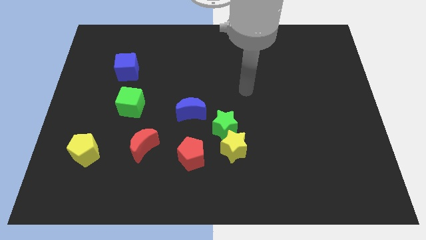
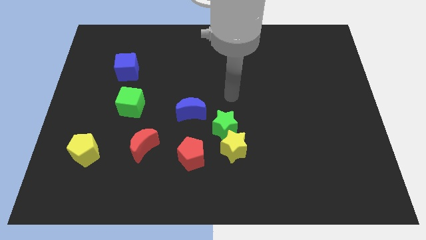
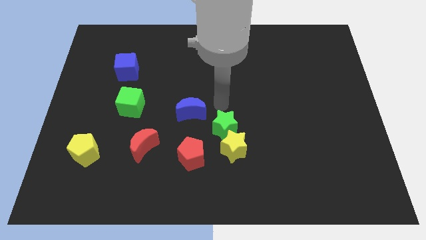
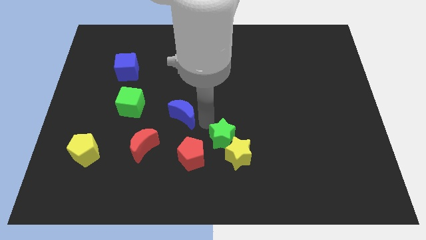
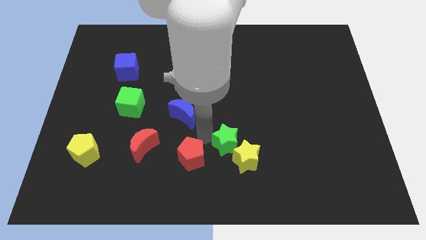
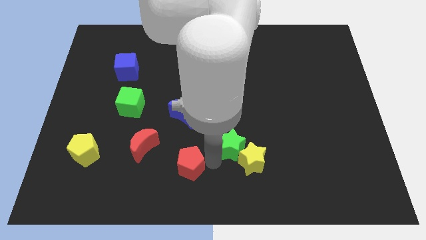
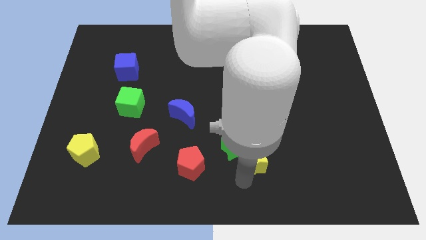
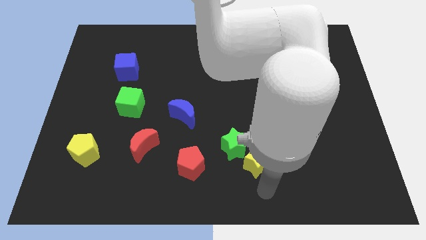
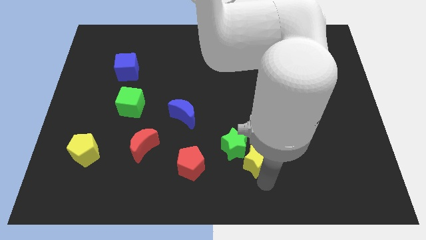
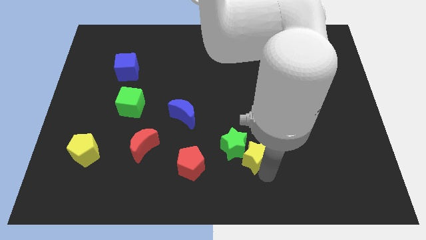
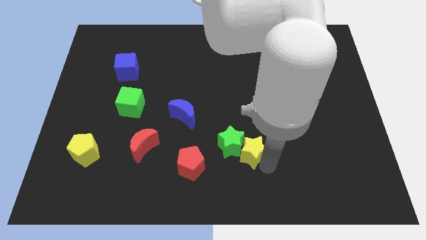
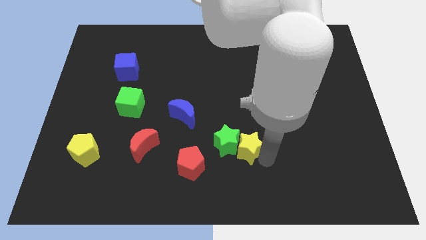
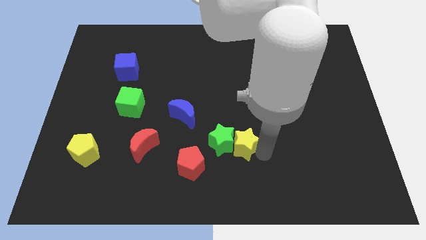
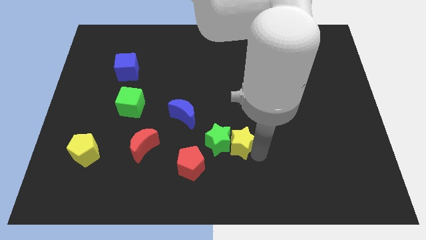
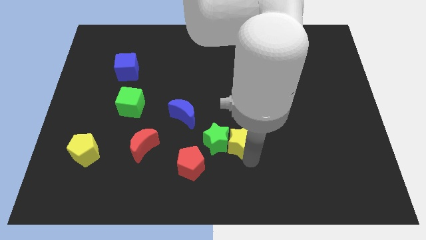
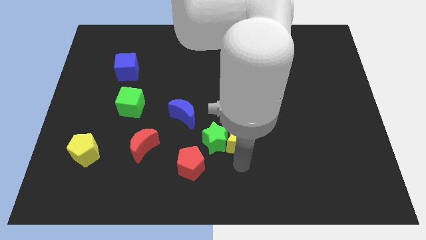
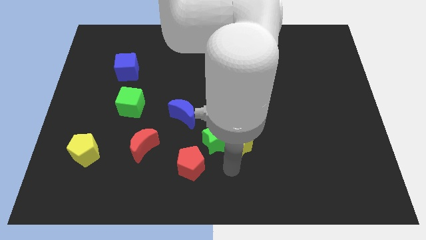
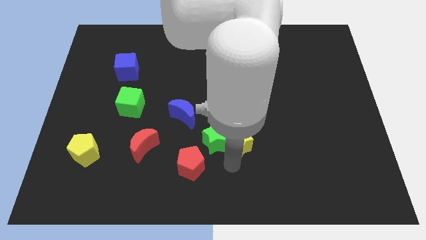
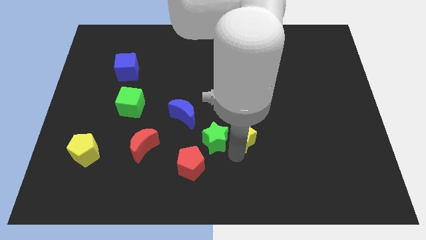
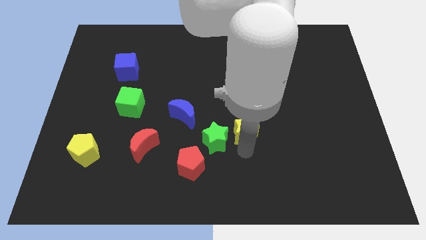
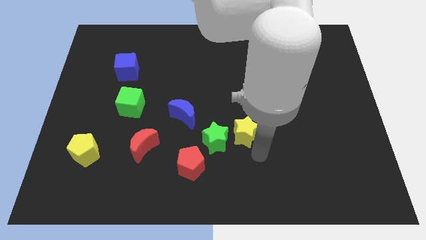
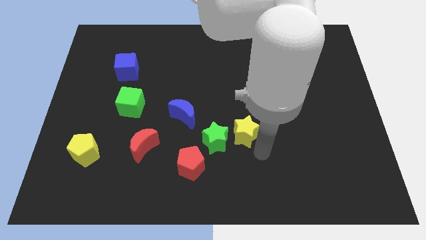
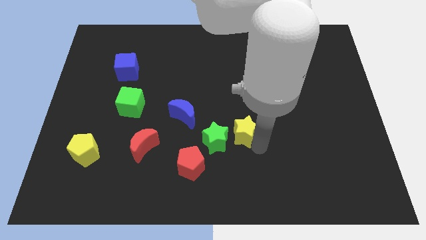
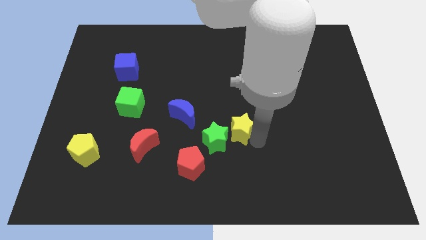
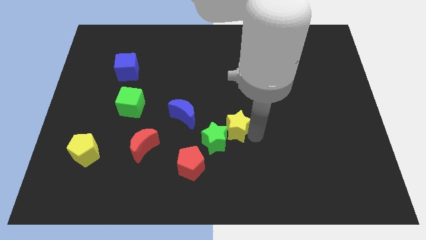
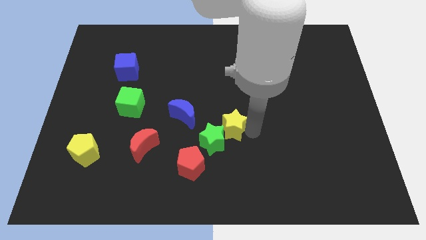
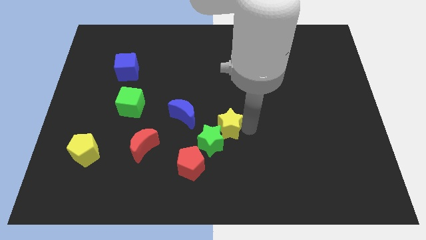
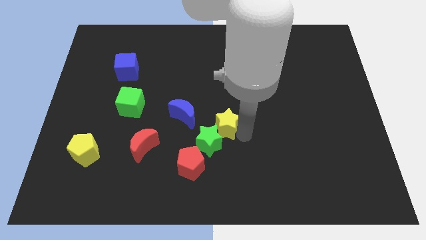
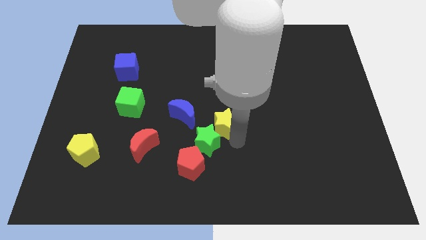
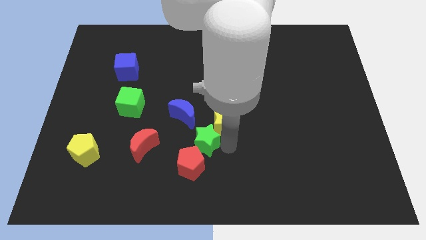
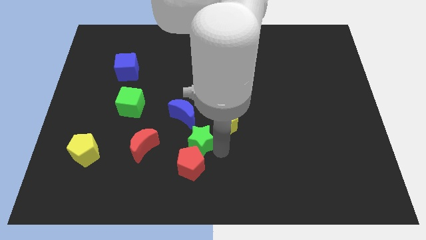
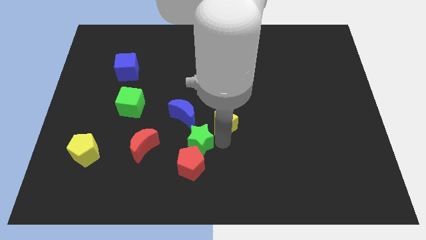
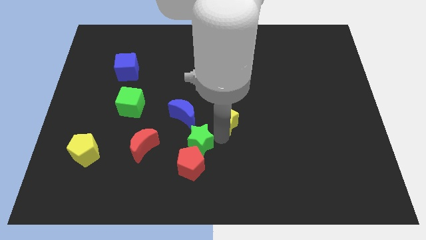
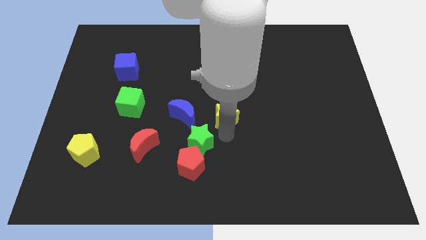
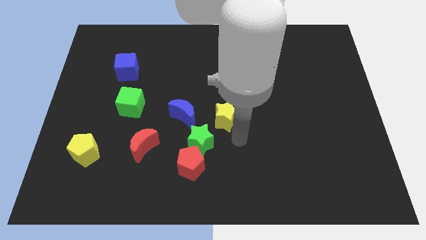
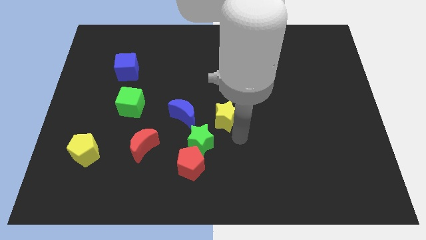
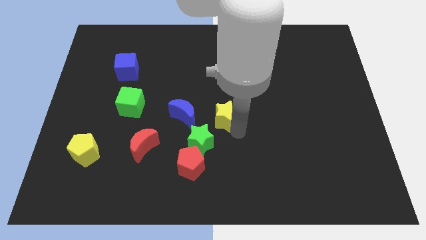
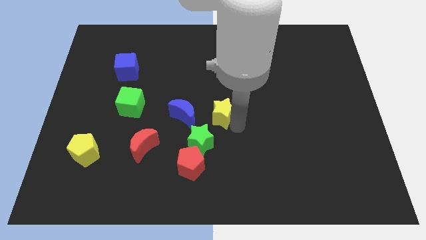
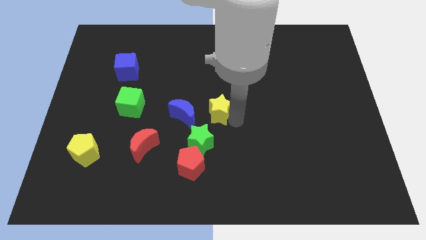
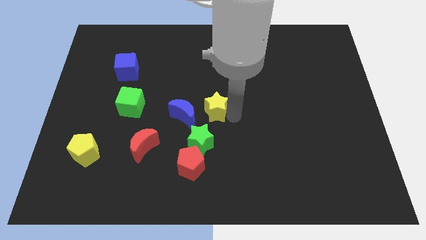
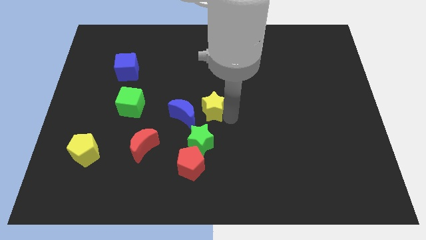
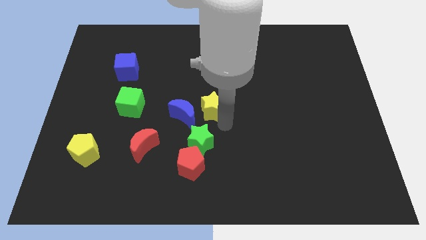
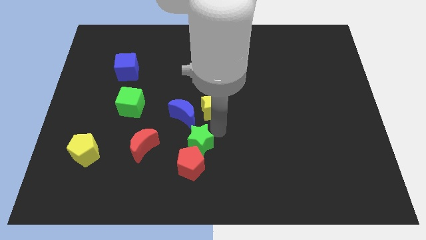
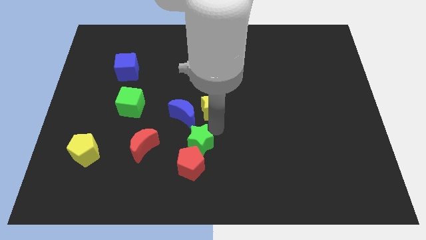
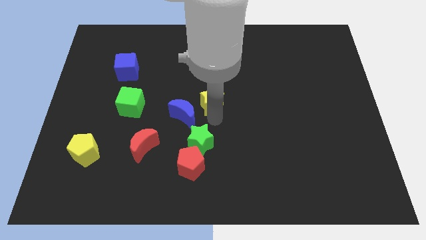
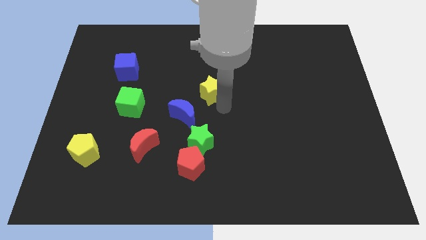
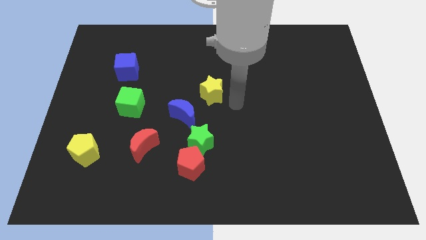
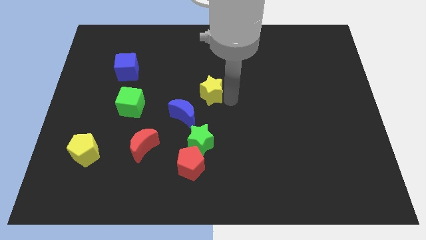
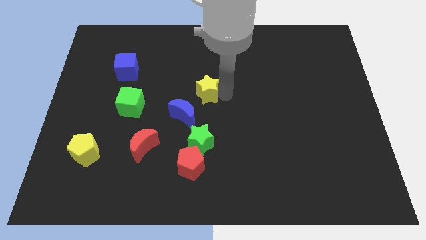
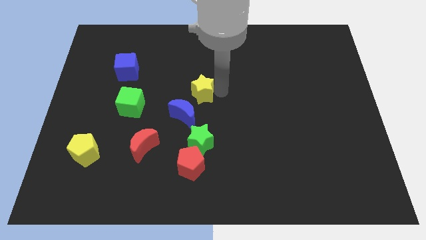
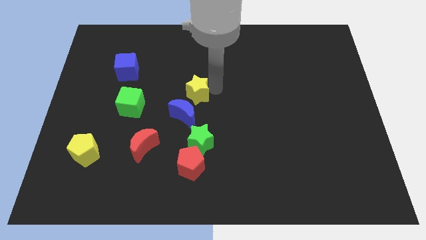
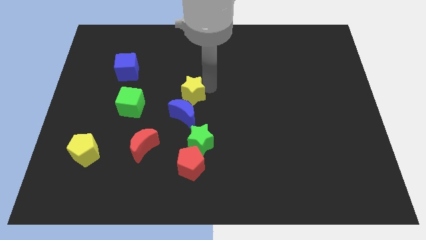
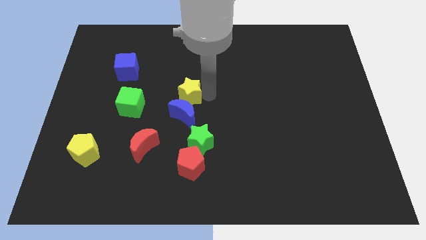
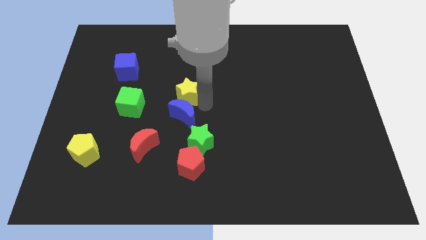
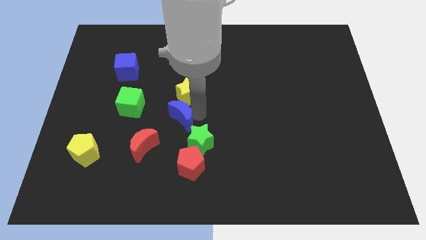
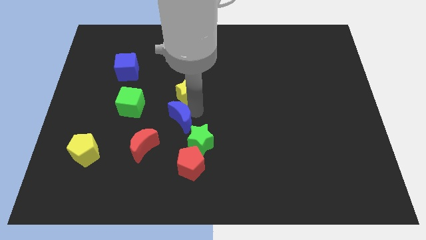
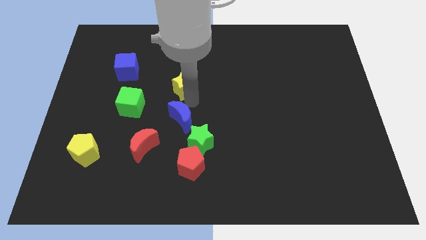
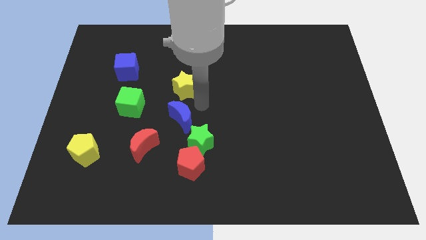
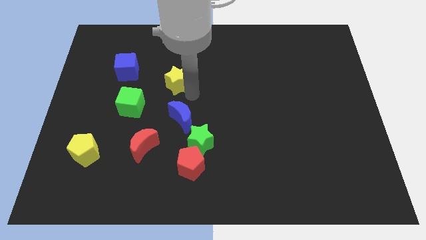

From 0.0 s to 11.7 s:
put the yellow star to the right side of the blue cube

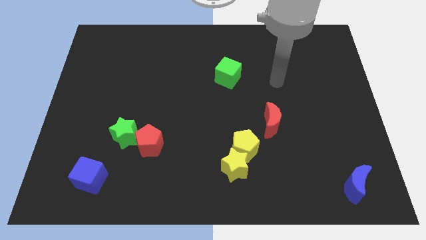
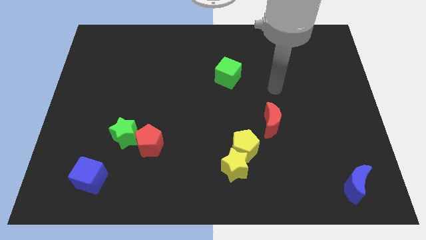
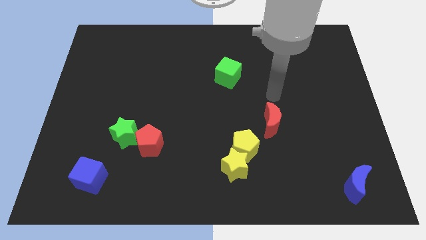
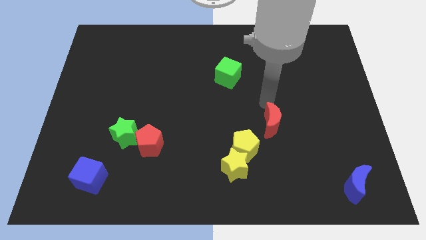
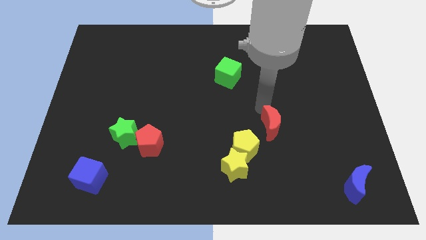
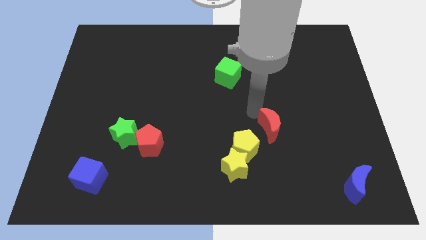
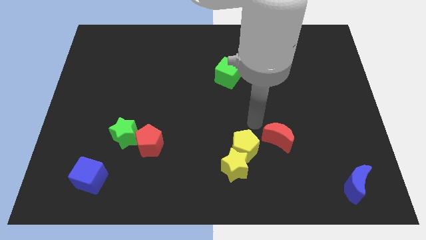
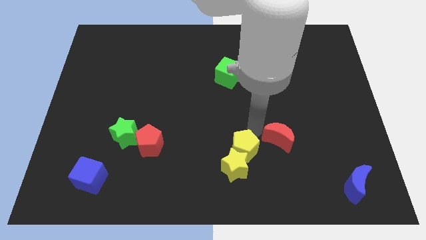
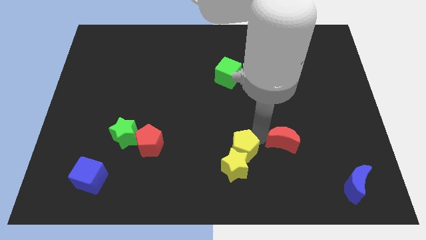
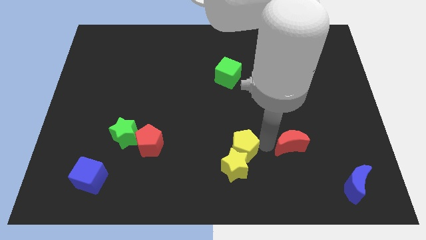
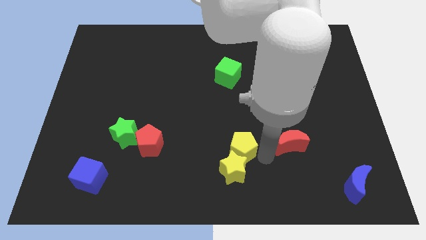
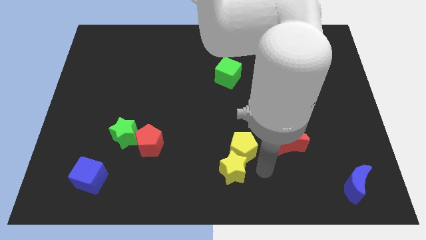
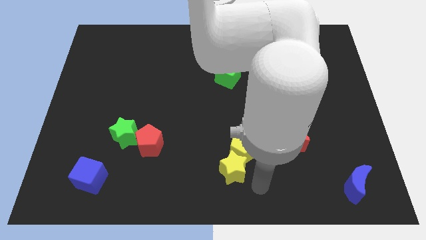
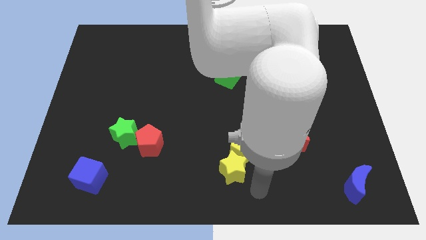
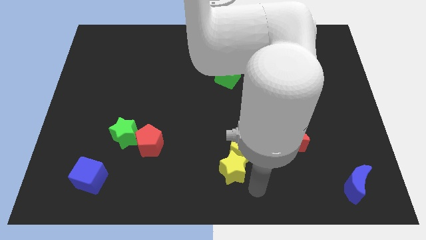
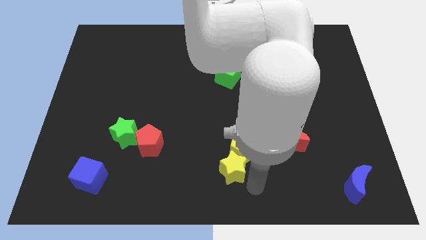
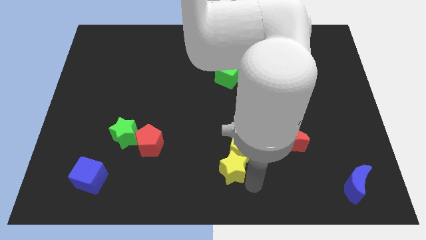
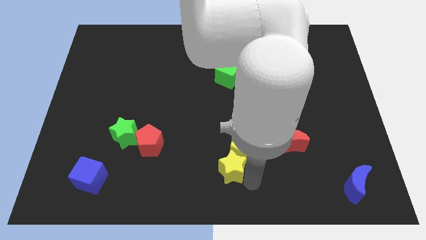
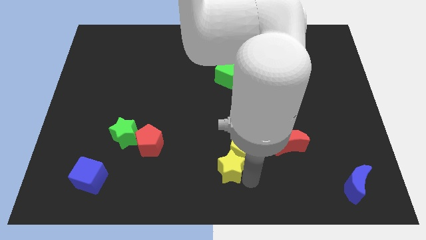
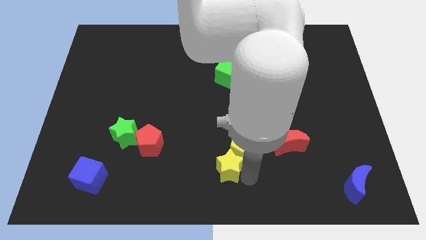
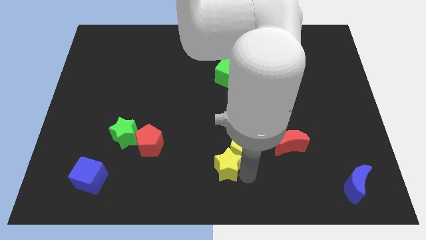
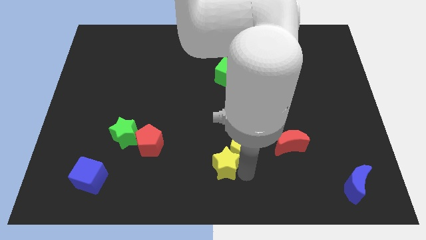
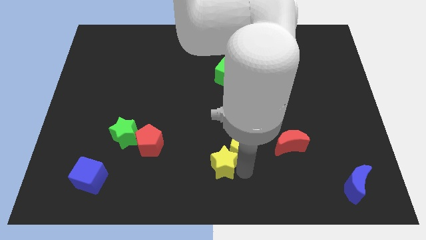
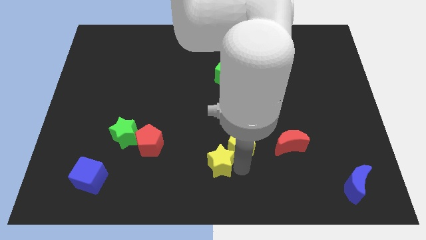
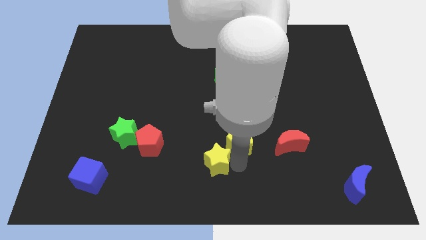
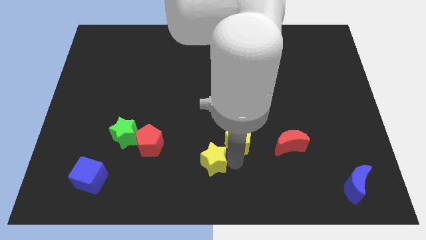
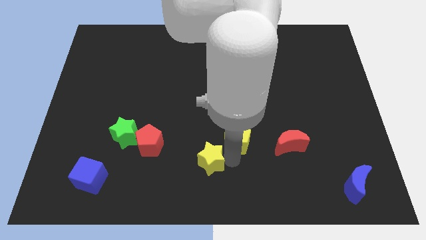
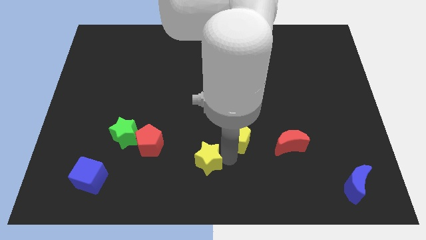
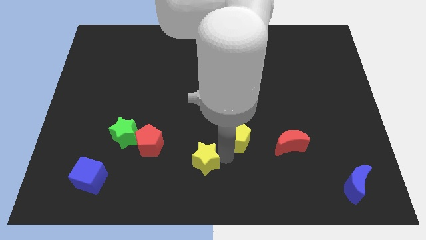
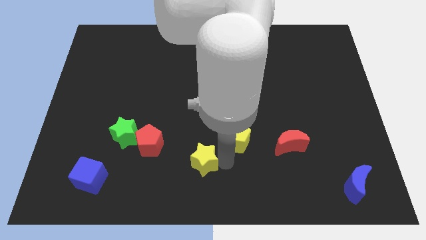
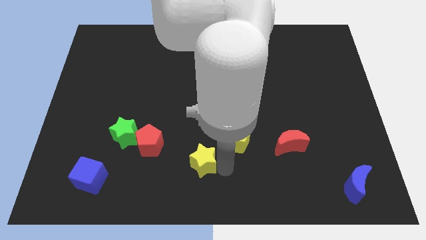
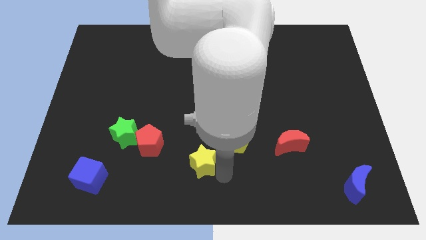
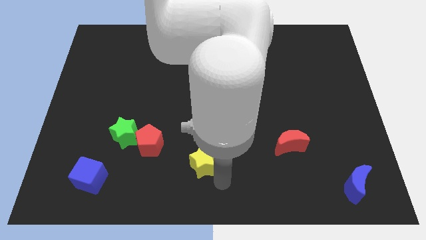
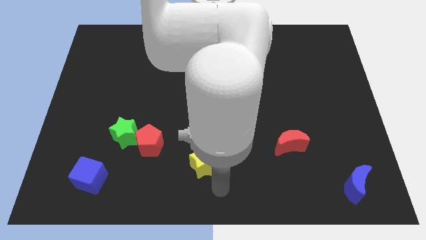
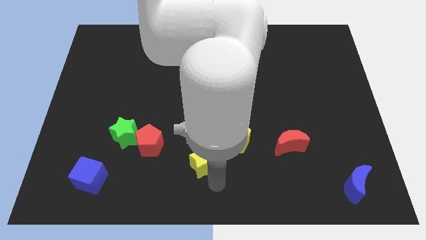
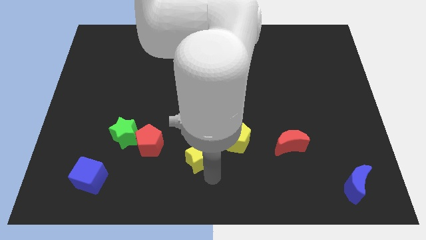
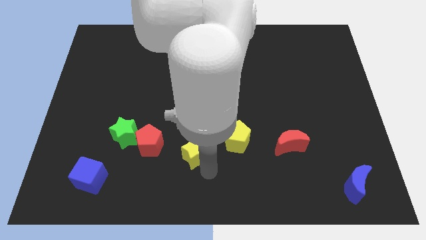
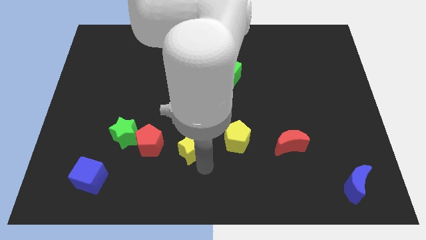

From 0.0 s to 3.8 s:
move the yellow star just right of the green star
